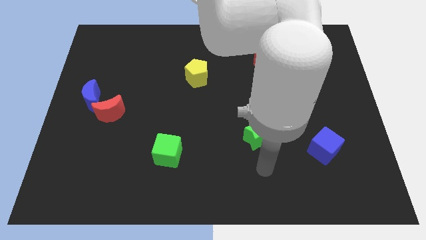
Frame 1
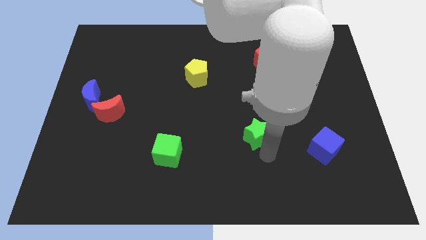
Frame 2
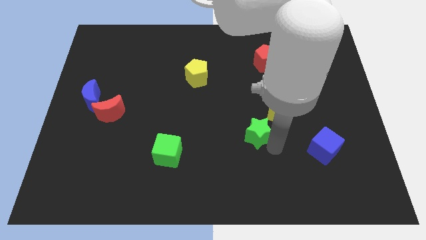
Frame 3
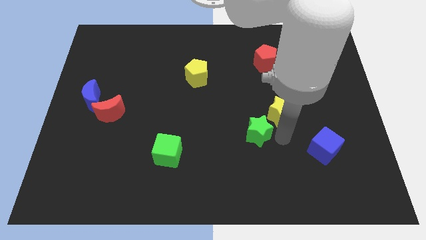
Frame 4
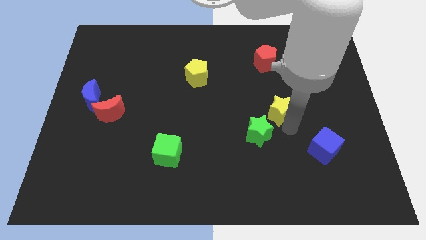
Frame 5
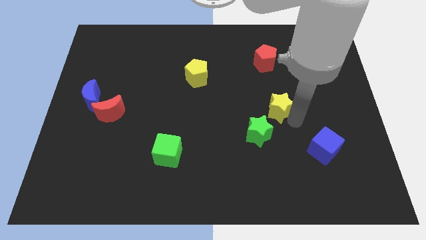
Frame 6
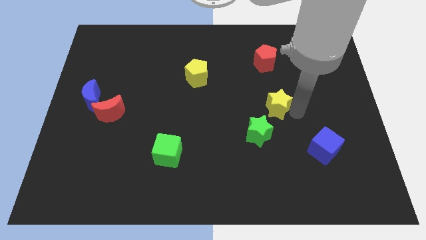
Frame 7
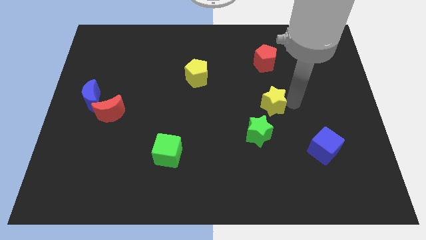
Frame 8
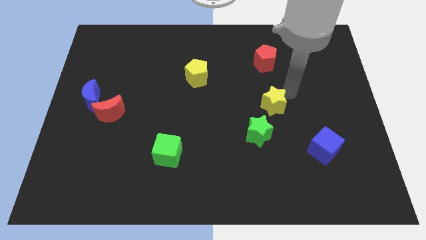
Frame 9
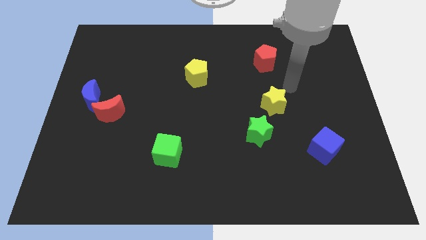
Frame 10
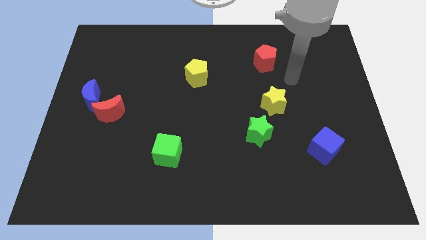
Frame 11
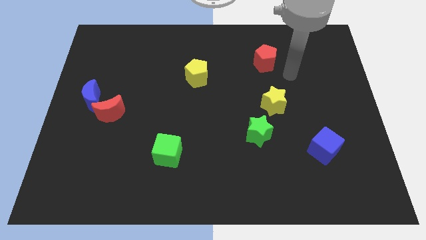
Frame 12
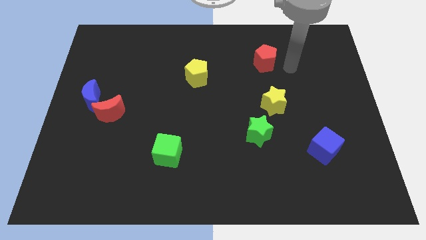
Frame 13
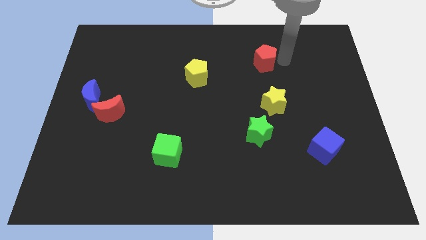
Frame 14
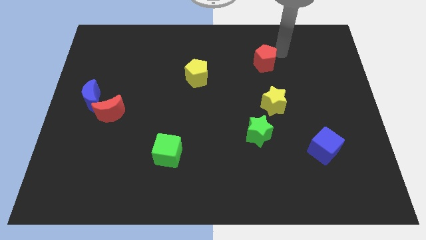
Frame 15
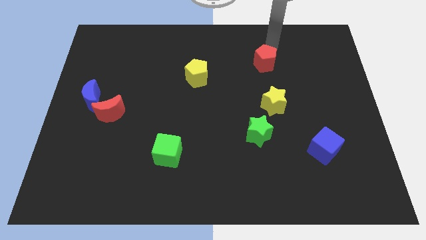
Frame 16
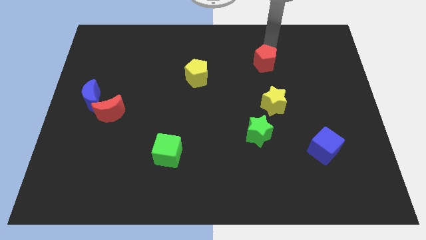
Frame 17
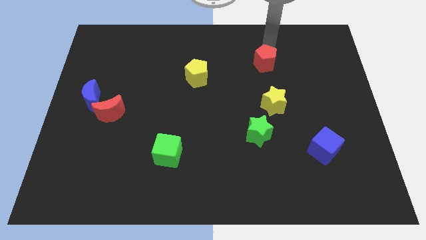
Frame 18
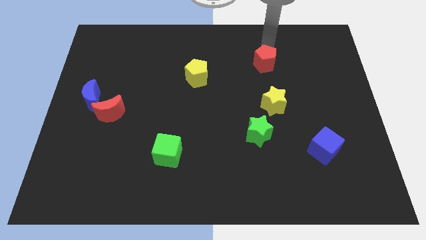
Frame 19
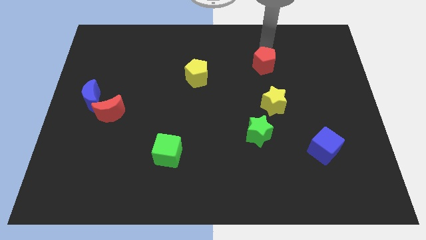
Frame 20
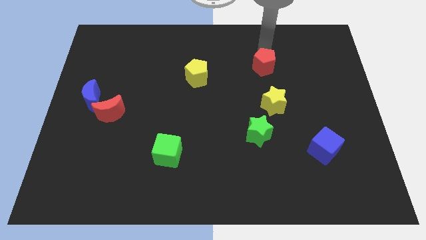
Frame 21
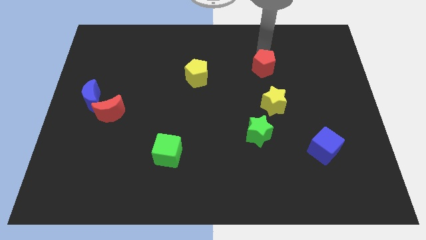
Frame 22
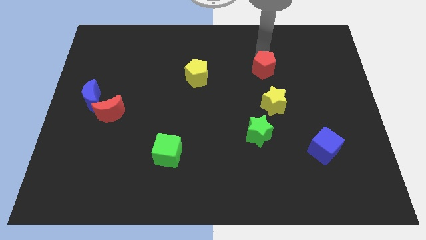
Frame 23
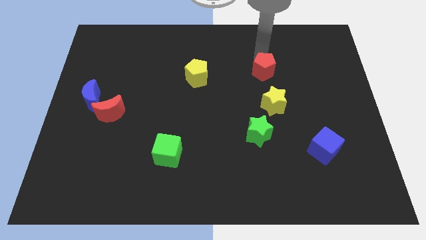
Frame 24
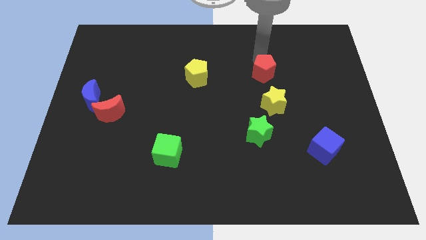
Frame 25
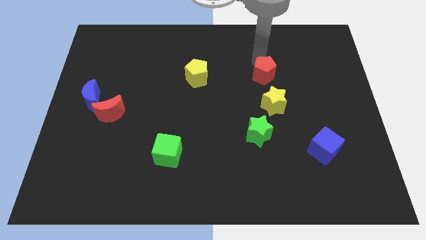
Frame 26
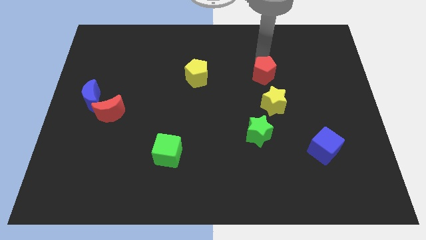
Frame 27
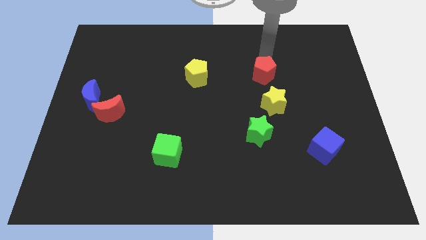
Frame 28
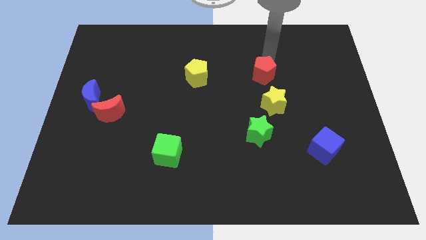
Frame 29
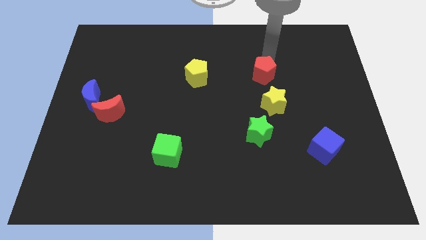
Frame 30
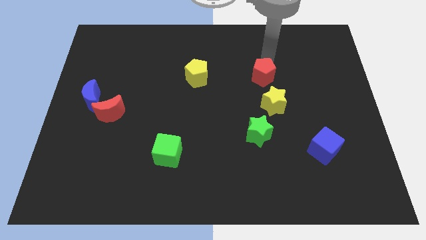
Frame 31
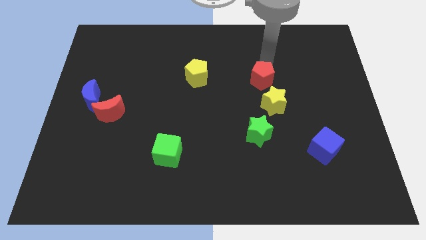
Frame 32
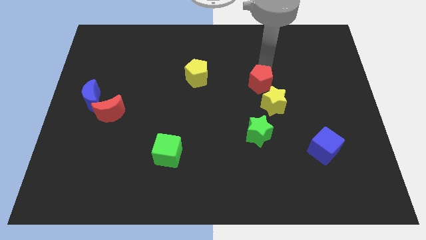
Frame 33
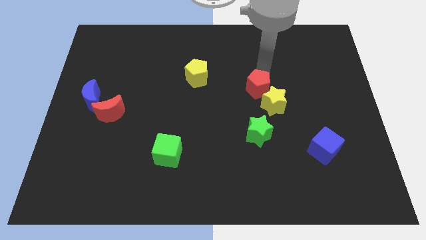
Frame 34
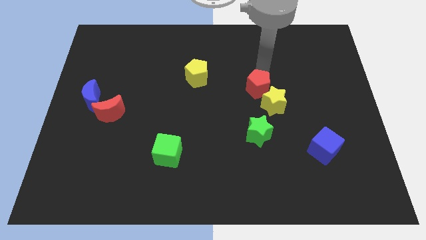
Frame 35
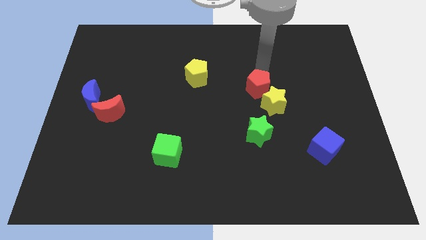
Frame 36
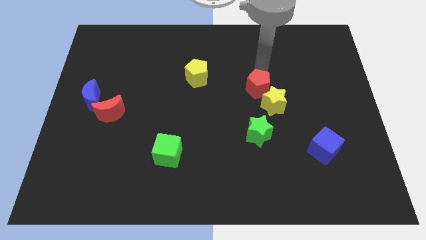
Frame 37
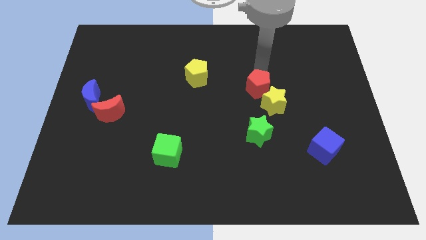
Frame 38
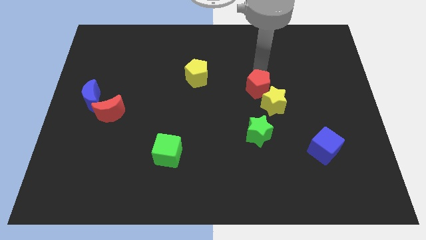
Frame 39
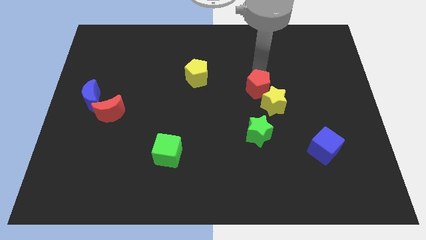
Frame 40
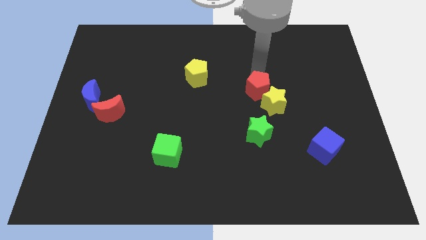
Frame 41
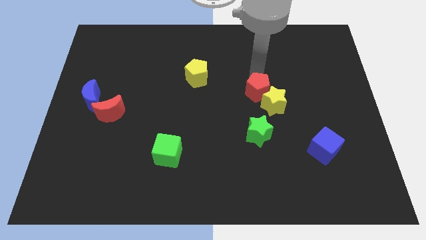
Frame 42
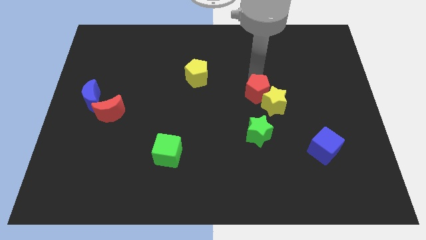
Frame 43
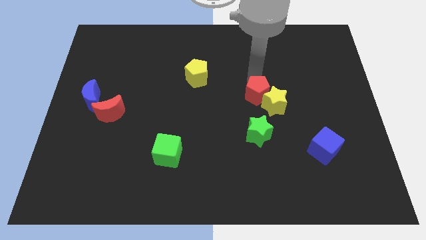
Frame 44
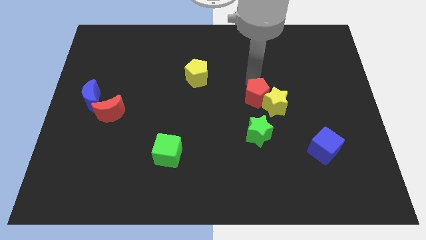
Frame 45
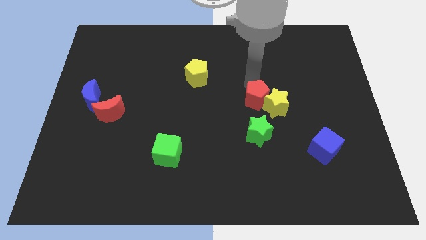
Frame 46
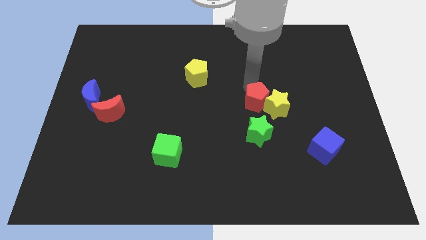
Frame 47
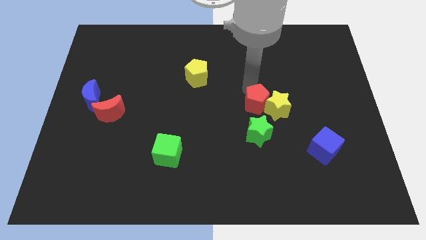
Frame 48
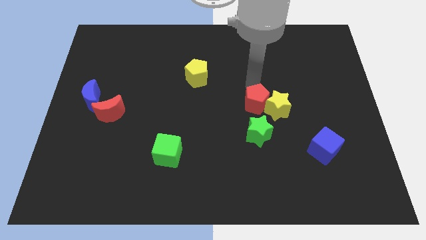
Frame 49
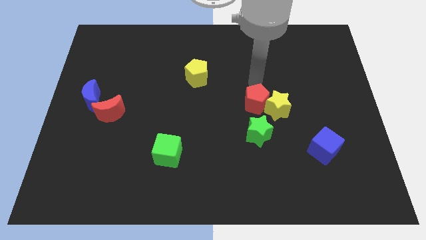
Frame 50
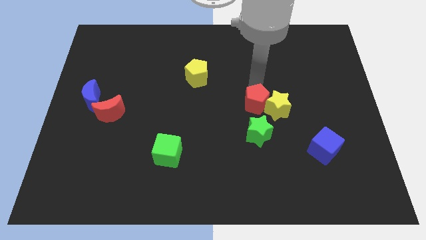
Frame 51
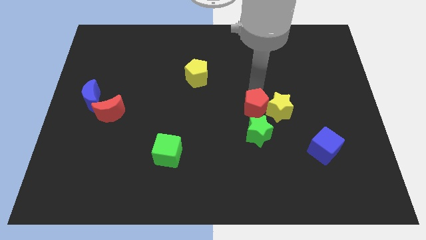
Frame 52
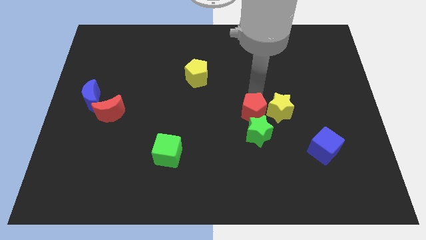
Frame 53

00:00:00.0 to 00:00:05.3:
put the red pentagon next to the green star

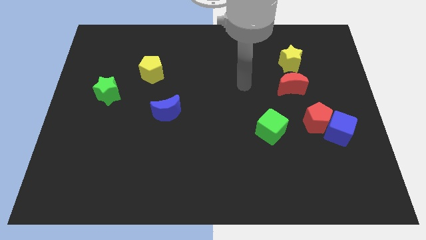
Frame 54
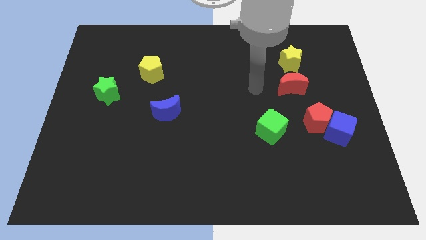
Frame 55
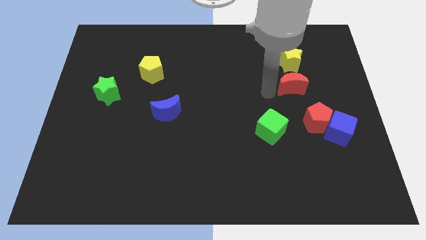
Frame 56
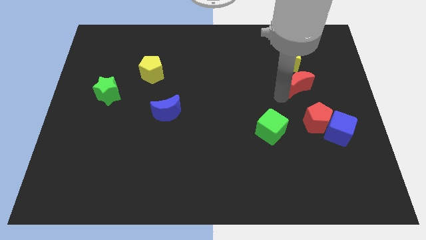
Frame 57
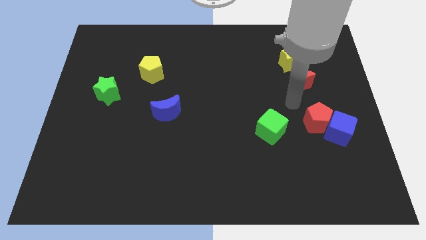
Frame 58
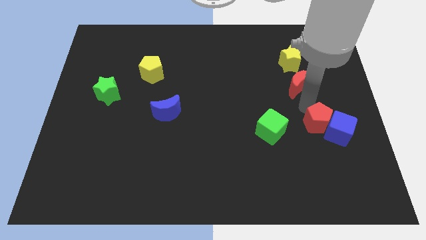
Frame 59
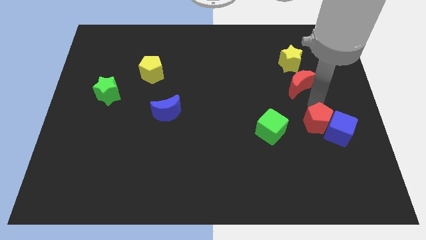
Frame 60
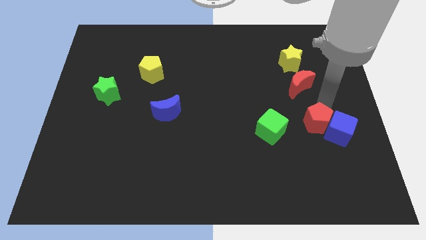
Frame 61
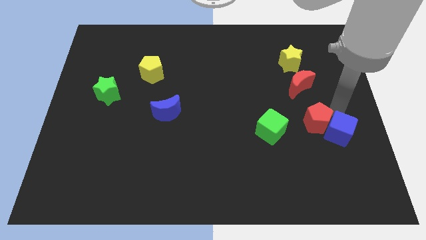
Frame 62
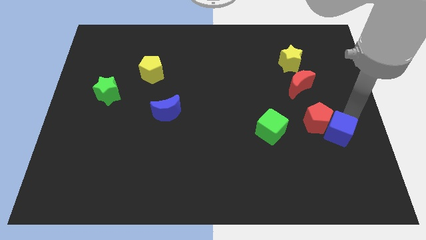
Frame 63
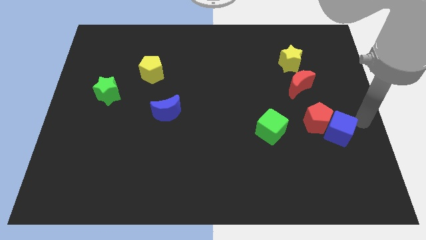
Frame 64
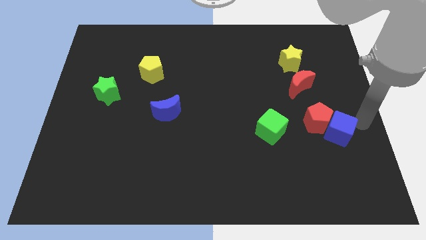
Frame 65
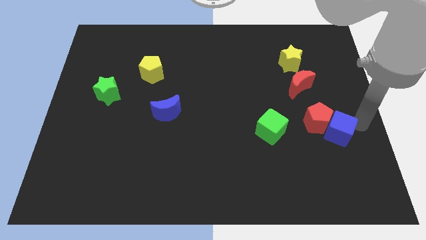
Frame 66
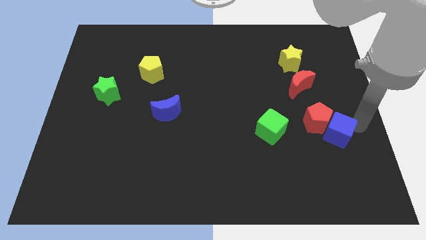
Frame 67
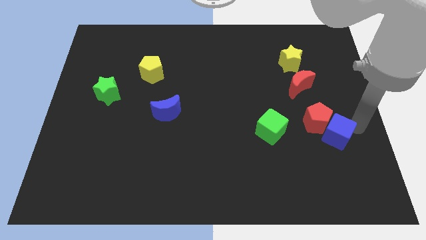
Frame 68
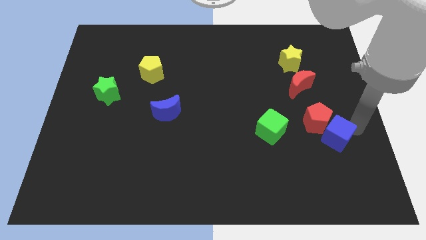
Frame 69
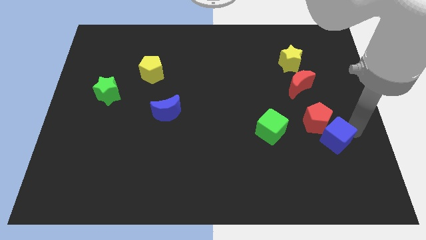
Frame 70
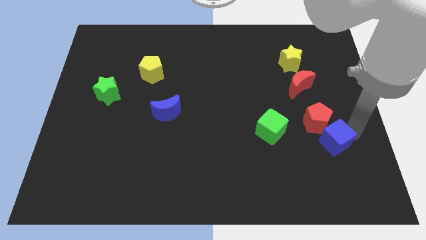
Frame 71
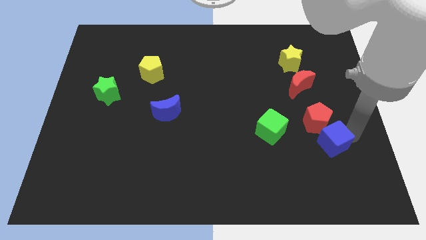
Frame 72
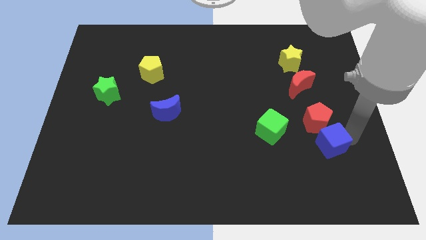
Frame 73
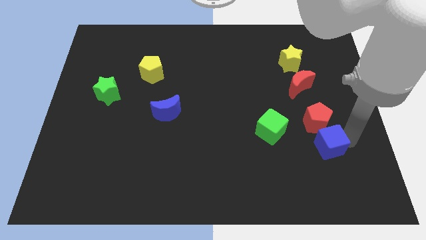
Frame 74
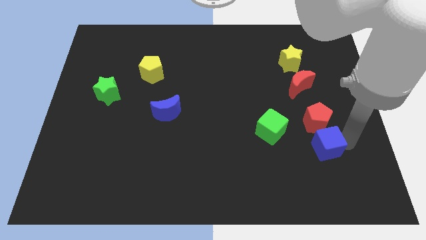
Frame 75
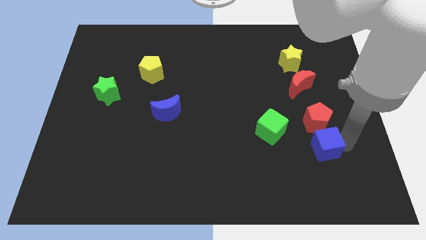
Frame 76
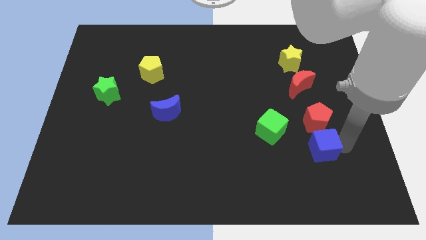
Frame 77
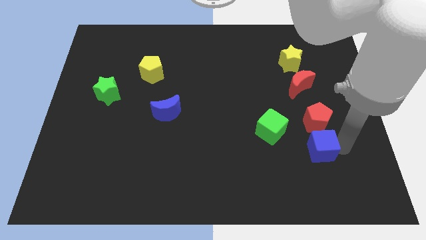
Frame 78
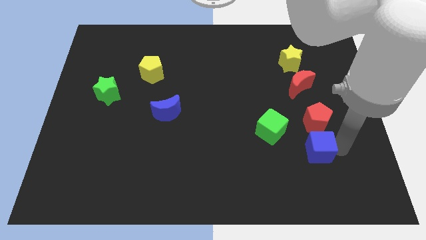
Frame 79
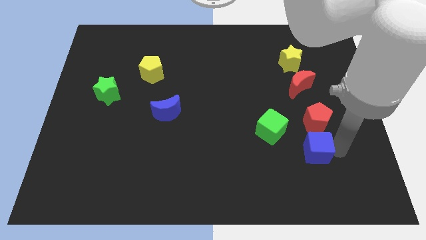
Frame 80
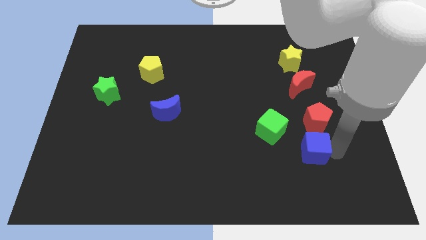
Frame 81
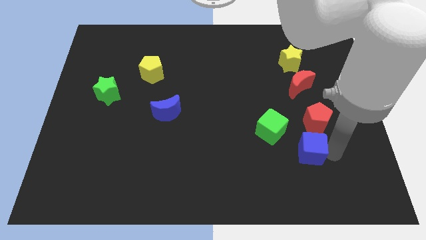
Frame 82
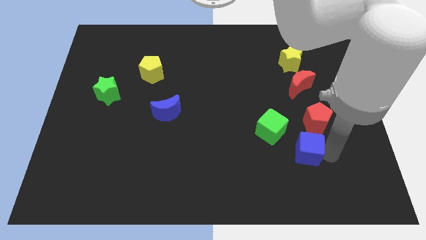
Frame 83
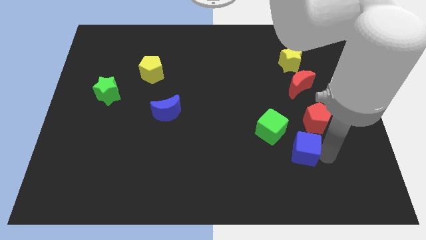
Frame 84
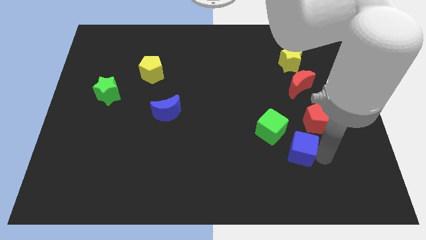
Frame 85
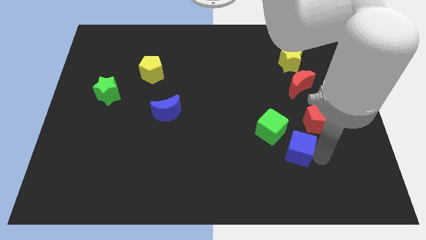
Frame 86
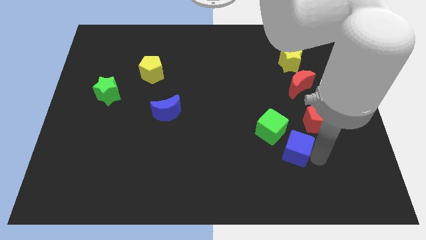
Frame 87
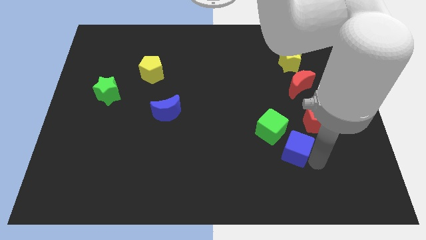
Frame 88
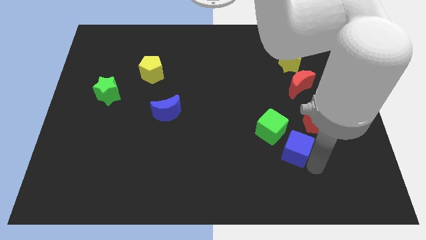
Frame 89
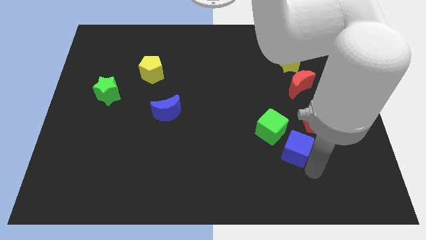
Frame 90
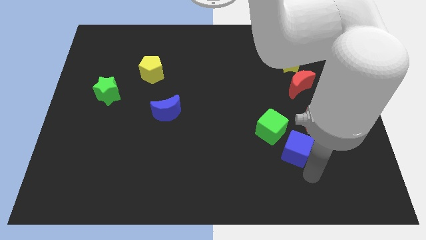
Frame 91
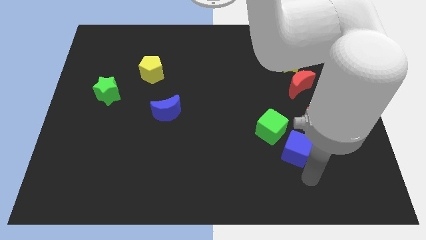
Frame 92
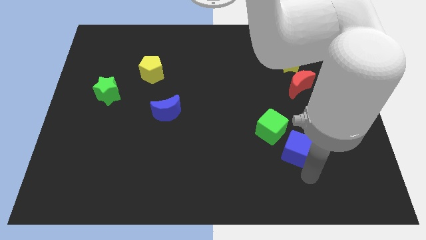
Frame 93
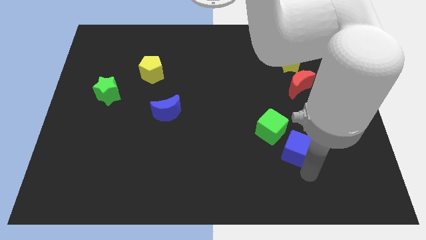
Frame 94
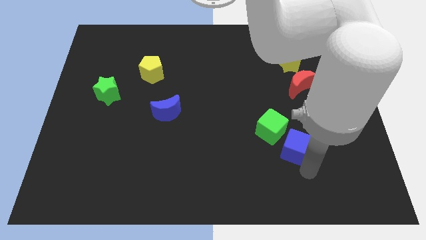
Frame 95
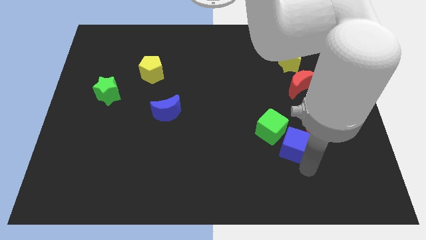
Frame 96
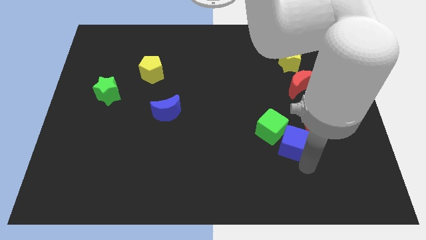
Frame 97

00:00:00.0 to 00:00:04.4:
move the blue cube close to the green cube
